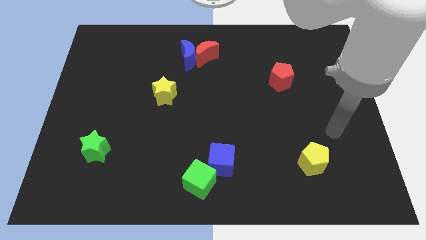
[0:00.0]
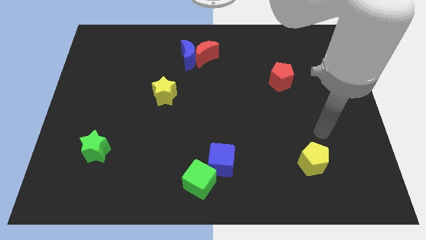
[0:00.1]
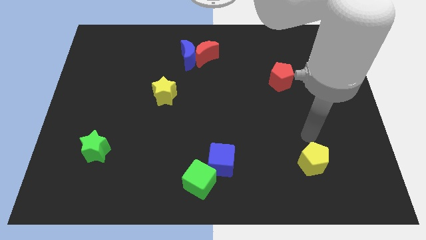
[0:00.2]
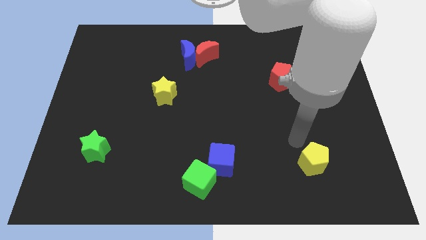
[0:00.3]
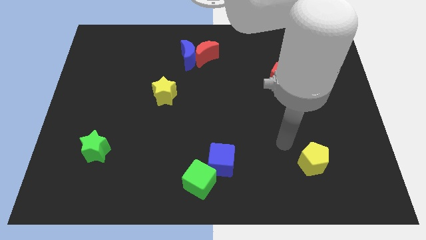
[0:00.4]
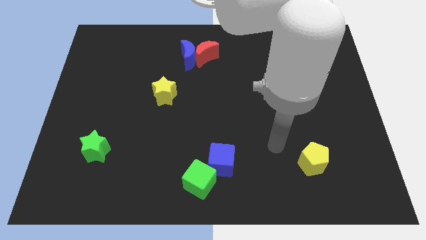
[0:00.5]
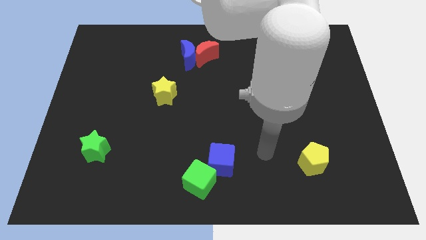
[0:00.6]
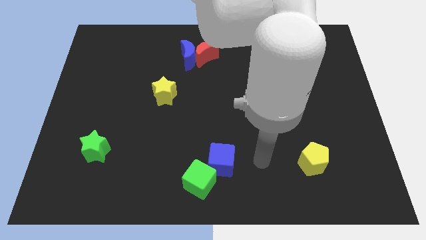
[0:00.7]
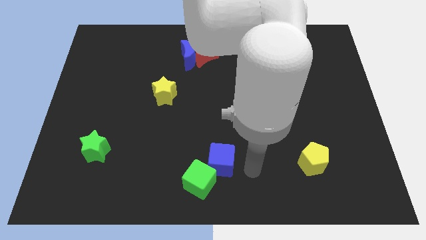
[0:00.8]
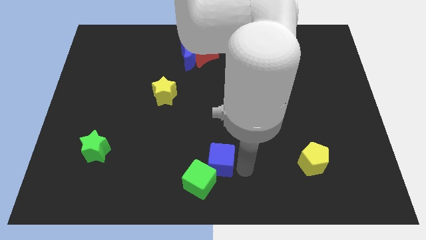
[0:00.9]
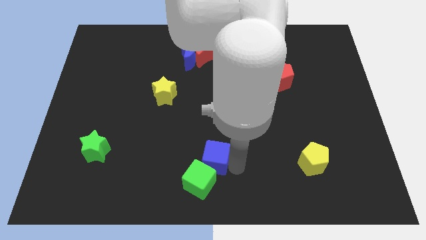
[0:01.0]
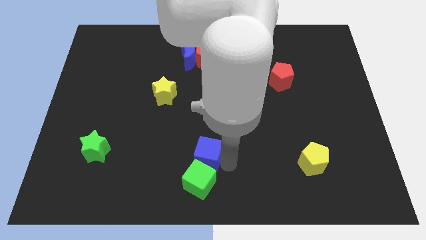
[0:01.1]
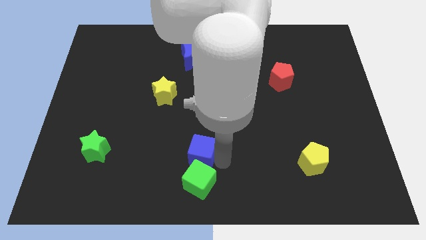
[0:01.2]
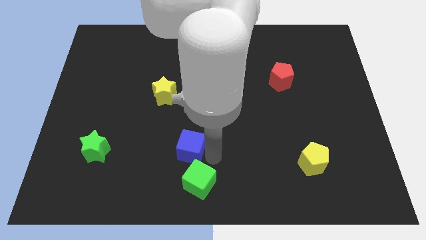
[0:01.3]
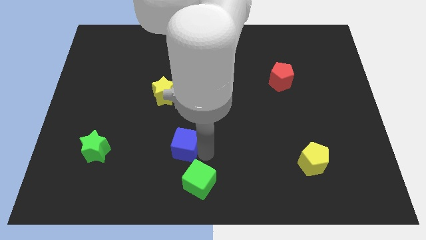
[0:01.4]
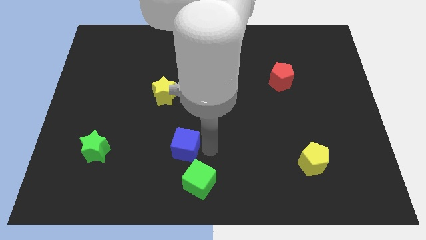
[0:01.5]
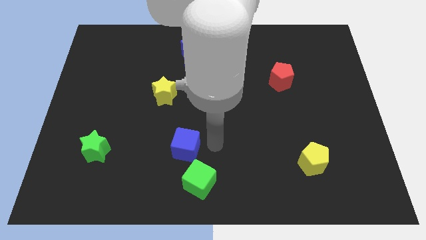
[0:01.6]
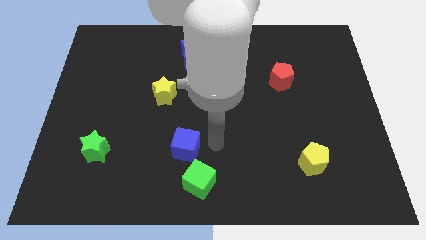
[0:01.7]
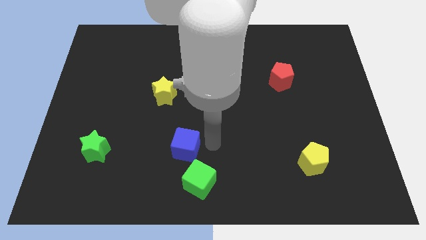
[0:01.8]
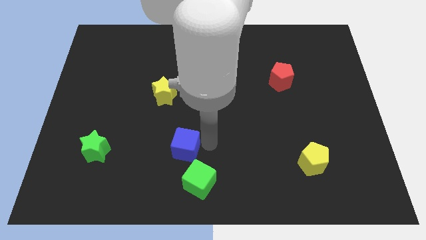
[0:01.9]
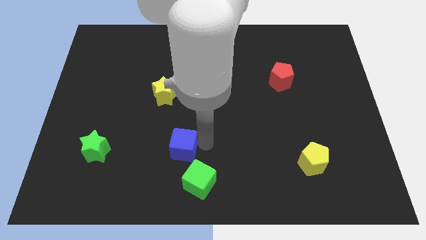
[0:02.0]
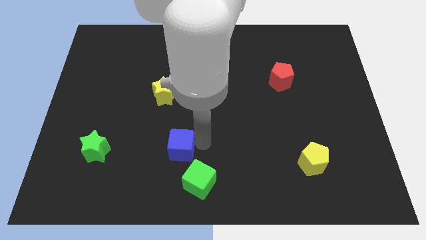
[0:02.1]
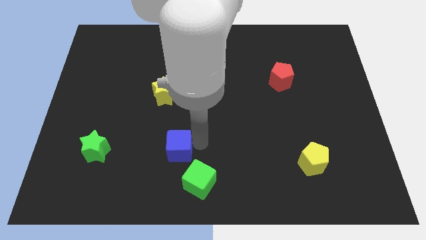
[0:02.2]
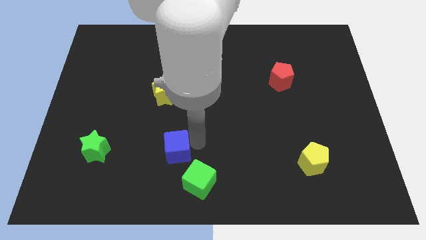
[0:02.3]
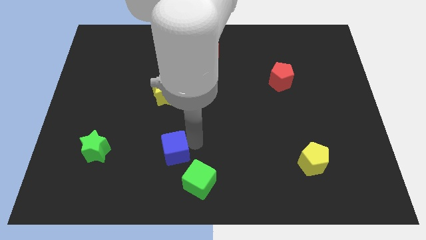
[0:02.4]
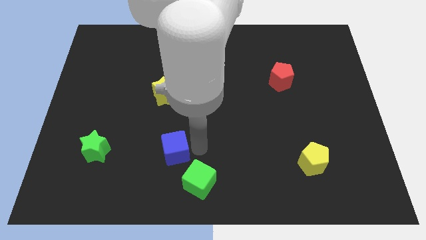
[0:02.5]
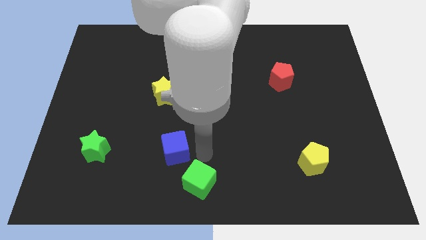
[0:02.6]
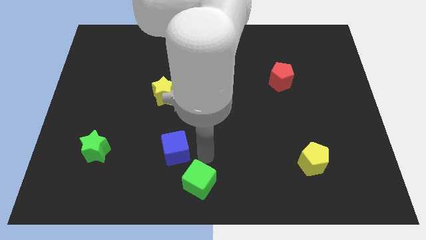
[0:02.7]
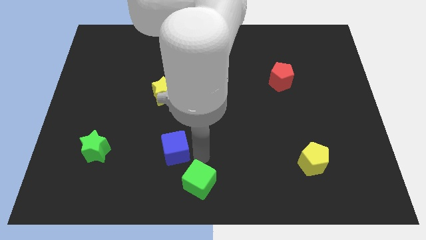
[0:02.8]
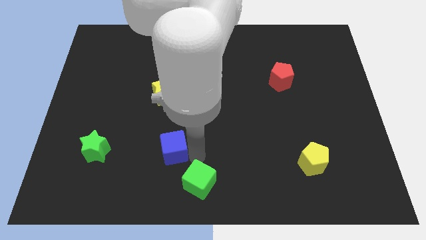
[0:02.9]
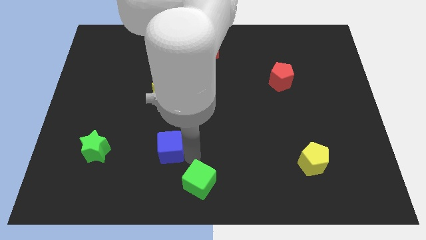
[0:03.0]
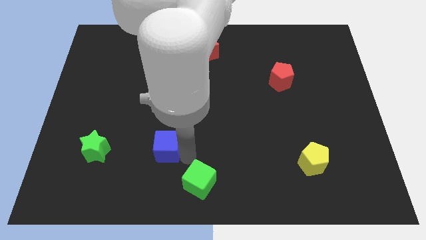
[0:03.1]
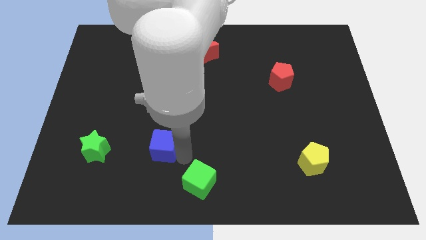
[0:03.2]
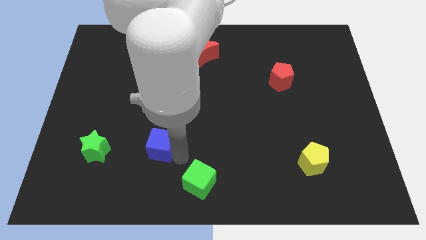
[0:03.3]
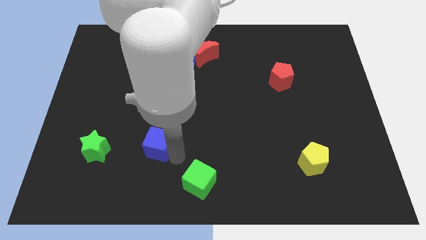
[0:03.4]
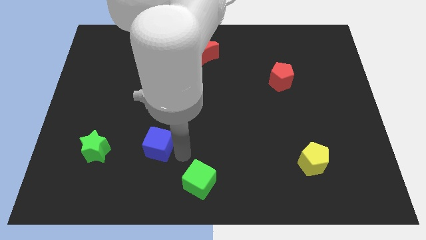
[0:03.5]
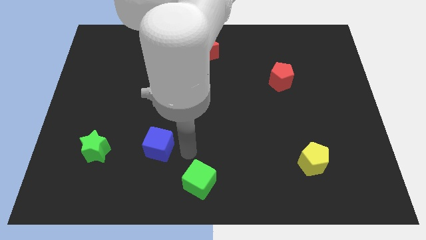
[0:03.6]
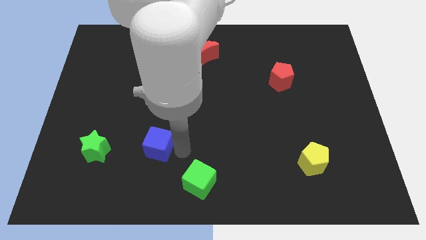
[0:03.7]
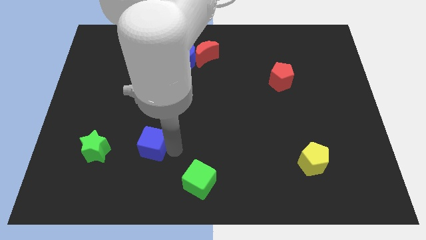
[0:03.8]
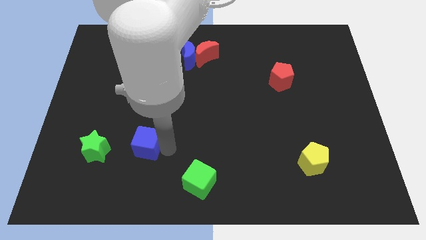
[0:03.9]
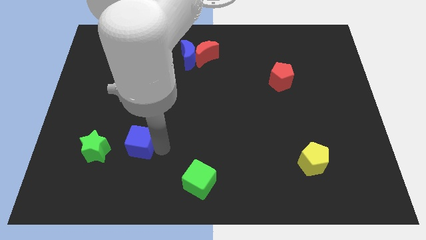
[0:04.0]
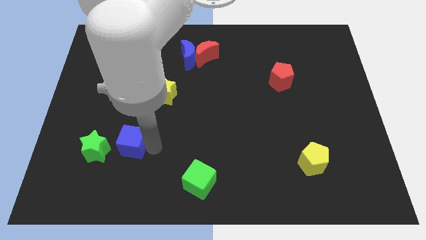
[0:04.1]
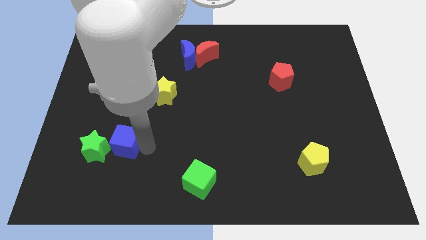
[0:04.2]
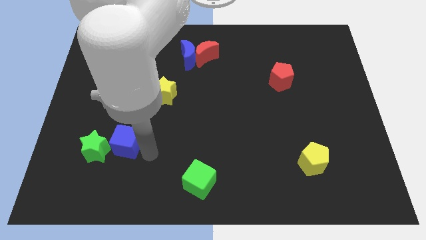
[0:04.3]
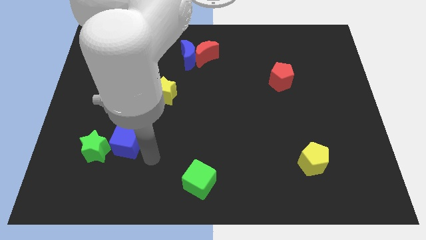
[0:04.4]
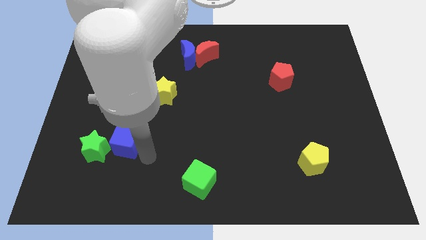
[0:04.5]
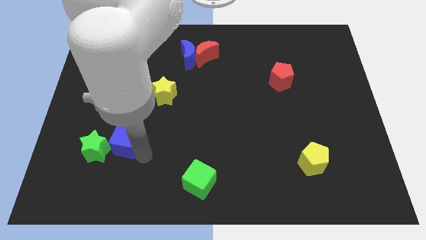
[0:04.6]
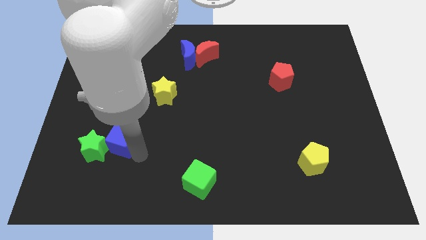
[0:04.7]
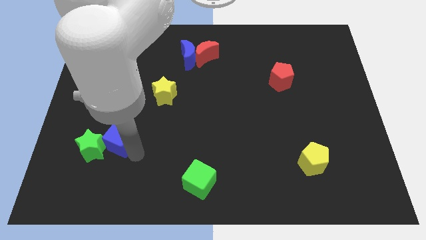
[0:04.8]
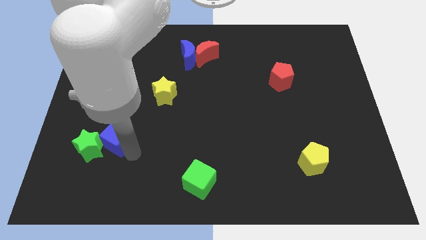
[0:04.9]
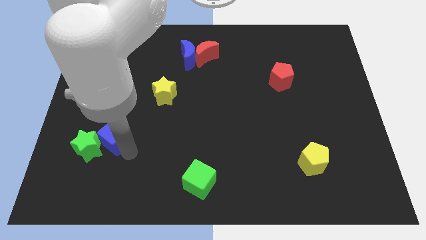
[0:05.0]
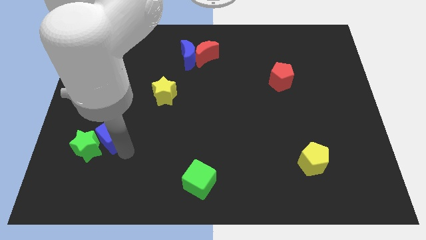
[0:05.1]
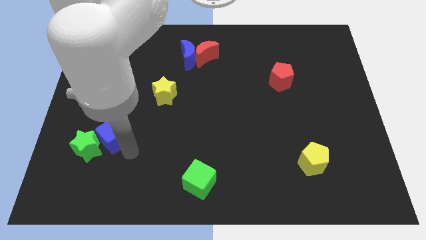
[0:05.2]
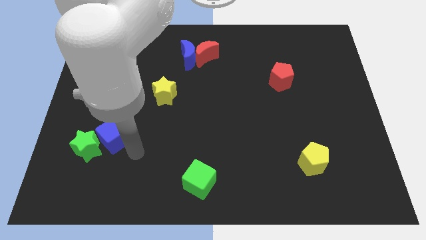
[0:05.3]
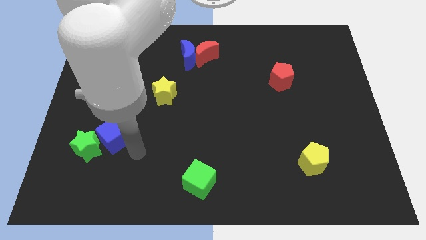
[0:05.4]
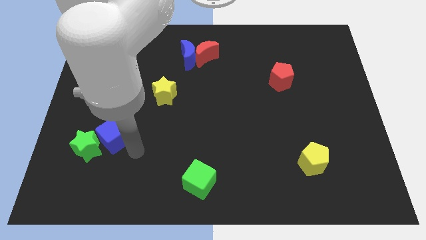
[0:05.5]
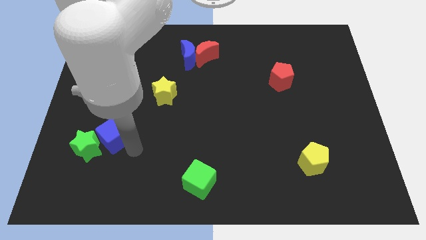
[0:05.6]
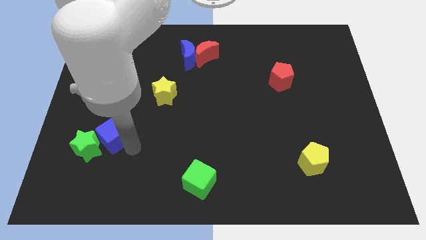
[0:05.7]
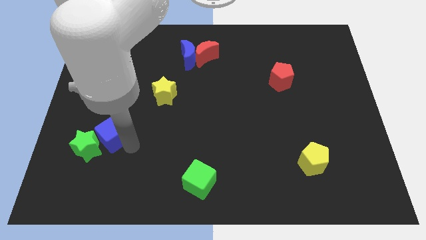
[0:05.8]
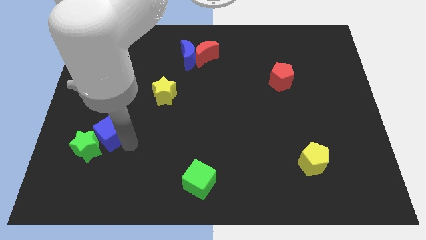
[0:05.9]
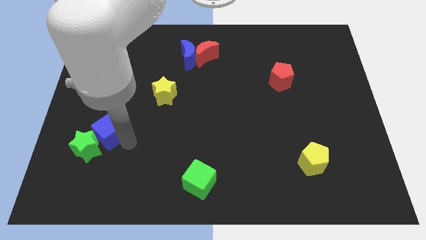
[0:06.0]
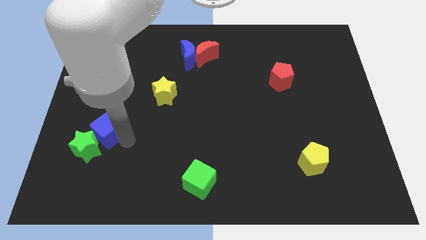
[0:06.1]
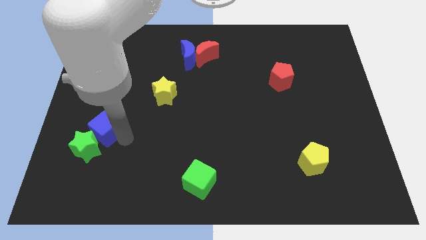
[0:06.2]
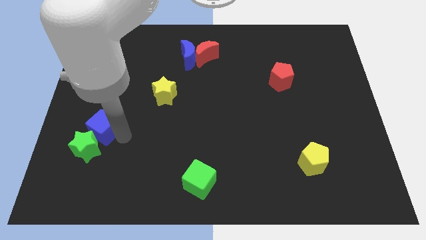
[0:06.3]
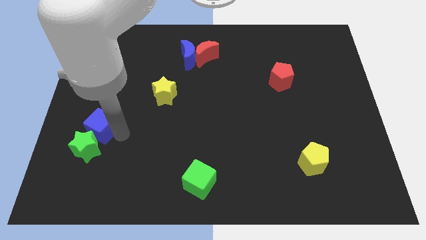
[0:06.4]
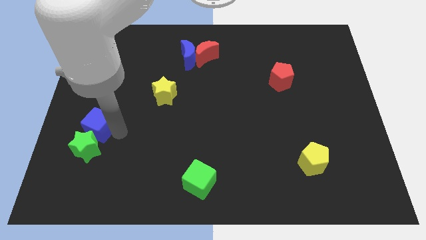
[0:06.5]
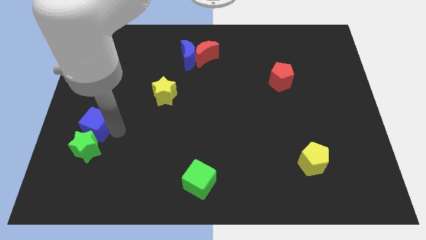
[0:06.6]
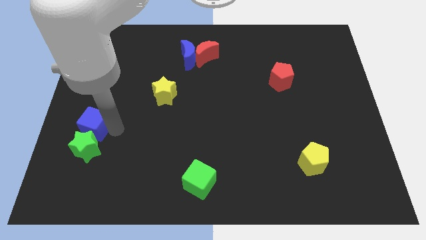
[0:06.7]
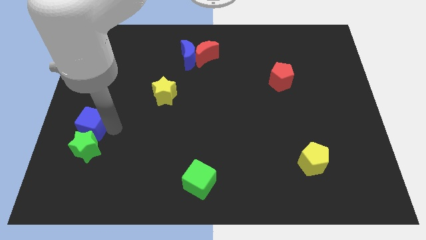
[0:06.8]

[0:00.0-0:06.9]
push the blue cube to the center left

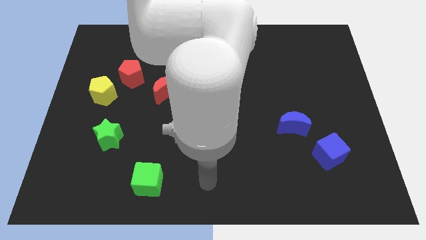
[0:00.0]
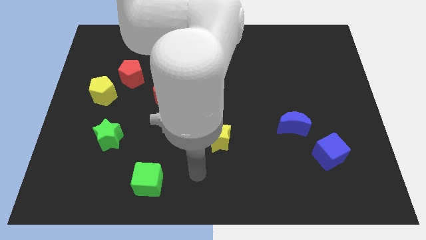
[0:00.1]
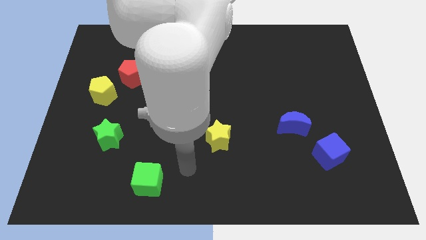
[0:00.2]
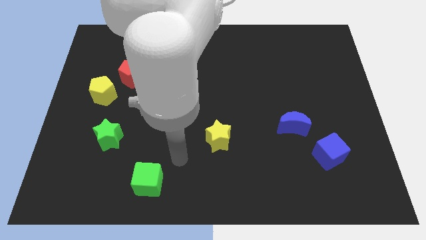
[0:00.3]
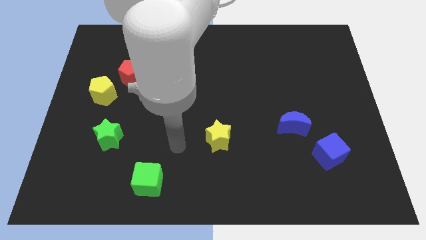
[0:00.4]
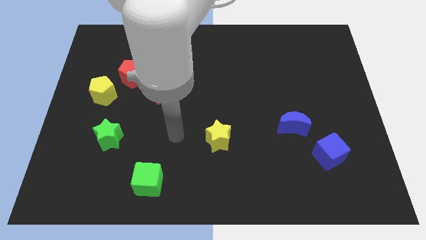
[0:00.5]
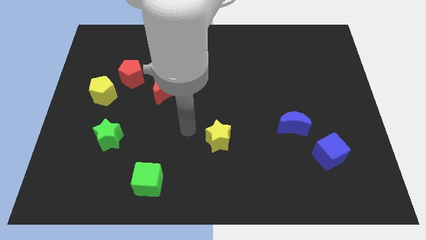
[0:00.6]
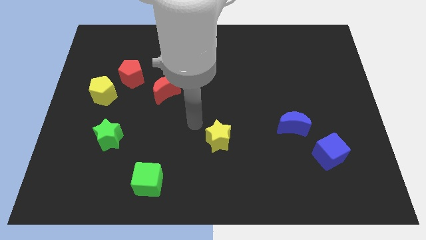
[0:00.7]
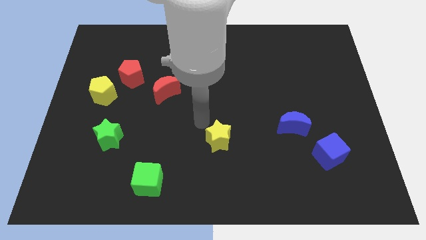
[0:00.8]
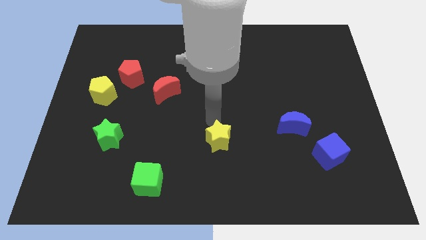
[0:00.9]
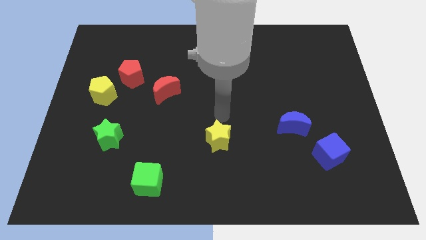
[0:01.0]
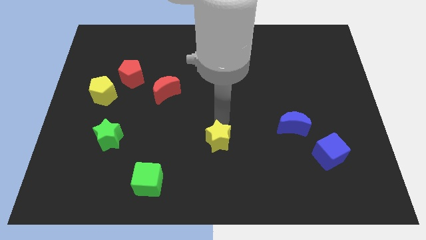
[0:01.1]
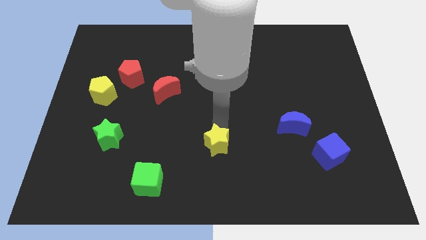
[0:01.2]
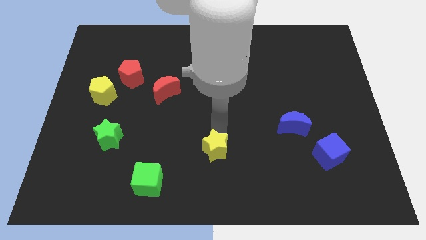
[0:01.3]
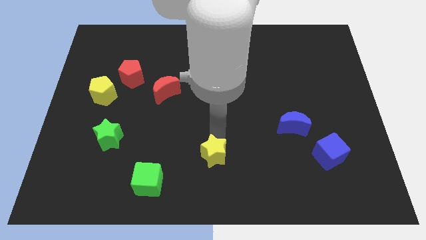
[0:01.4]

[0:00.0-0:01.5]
move the yellow star to the bottom side
